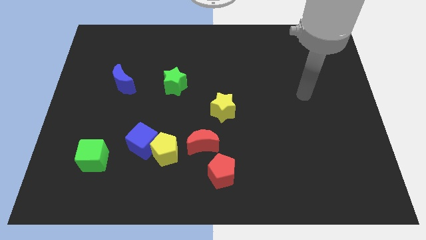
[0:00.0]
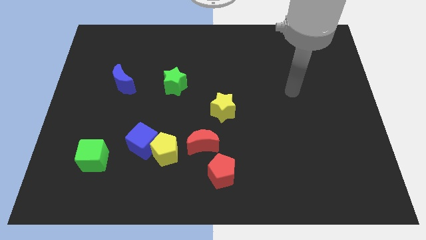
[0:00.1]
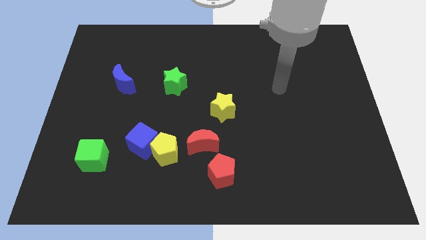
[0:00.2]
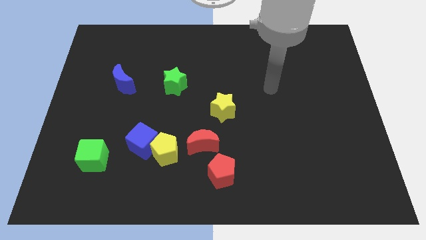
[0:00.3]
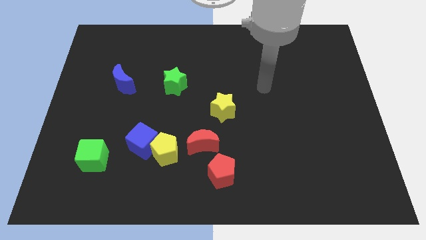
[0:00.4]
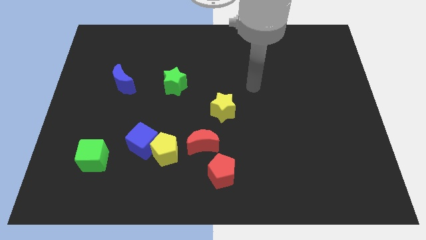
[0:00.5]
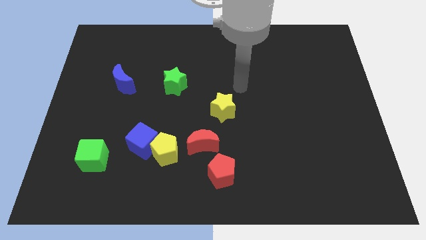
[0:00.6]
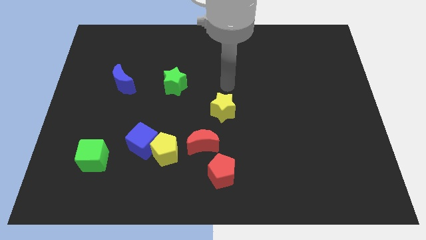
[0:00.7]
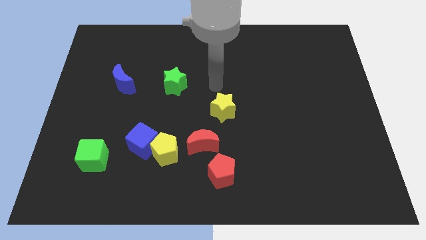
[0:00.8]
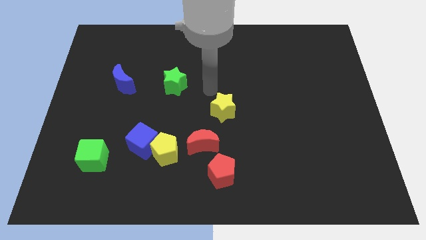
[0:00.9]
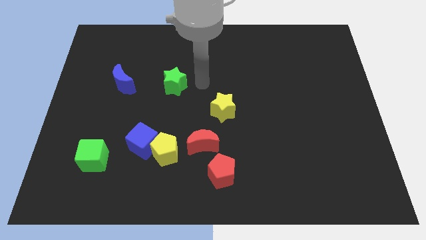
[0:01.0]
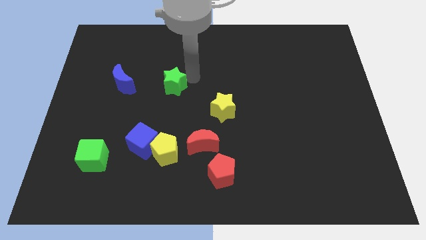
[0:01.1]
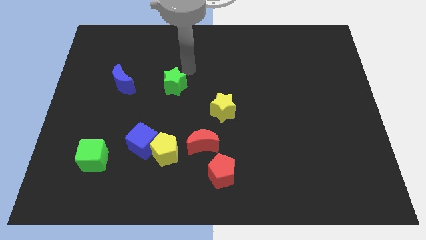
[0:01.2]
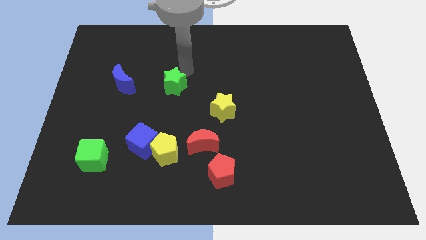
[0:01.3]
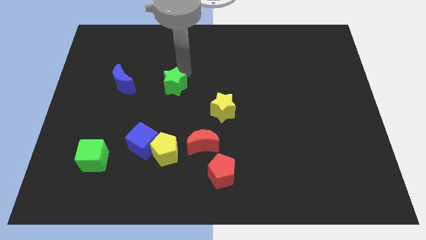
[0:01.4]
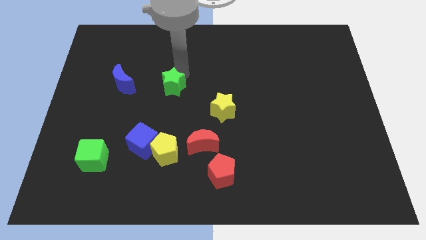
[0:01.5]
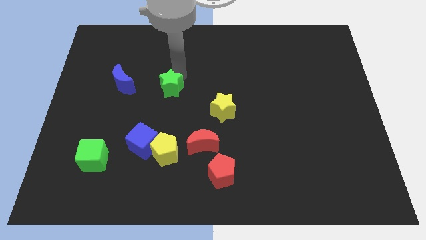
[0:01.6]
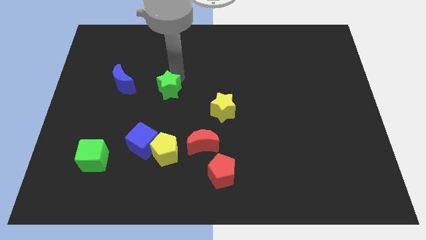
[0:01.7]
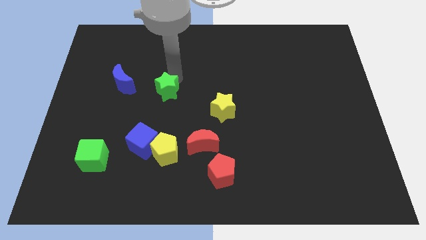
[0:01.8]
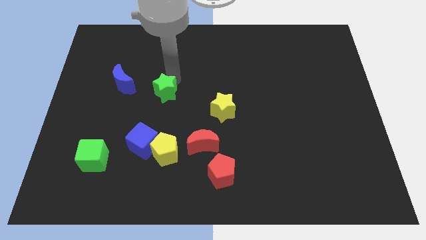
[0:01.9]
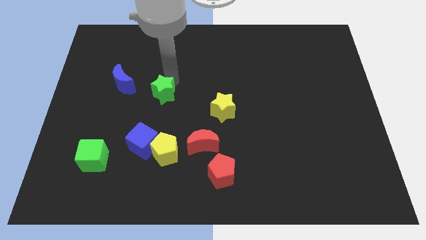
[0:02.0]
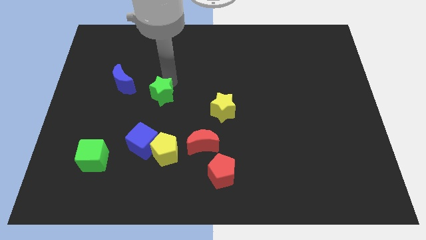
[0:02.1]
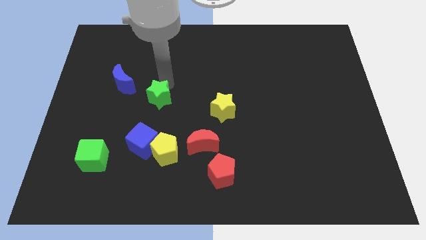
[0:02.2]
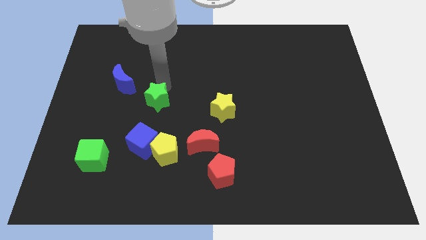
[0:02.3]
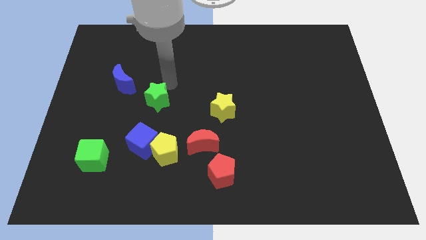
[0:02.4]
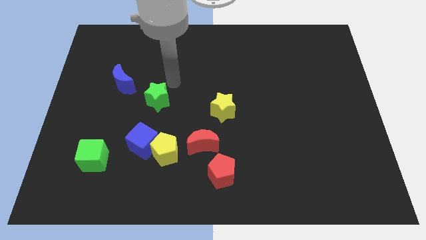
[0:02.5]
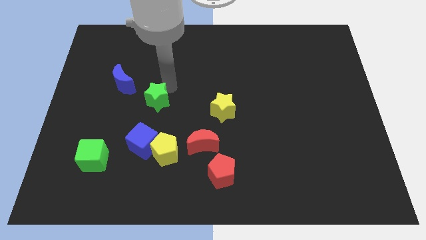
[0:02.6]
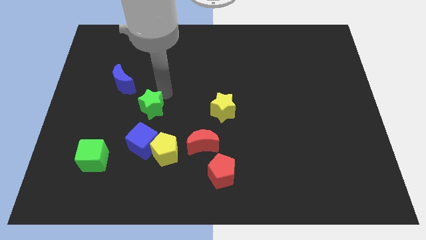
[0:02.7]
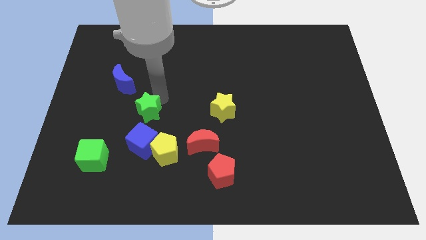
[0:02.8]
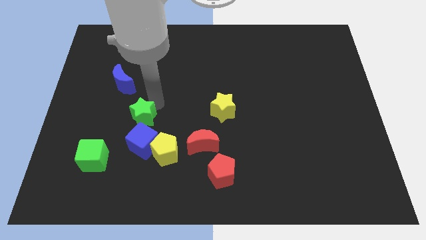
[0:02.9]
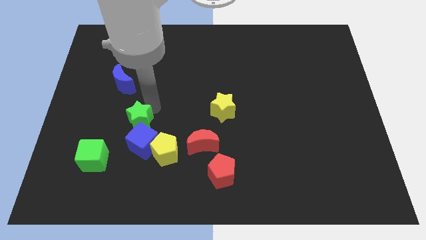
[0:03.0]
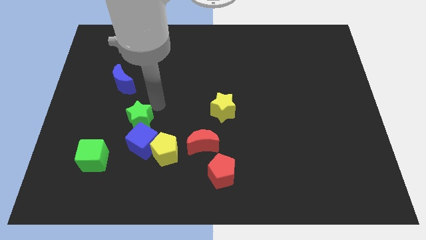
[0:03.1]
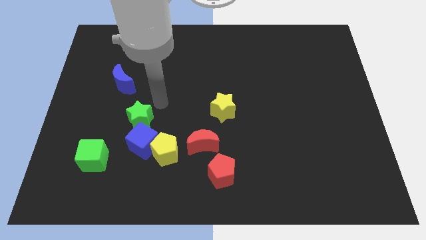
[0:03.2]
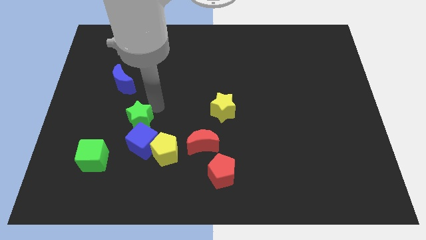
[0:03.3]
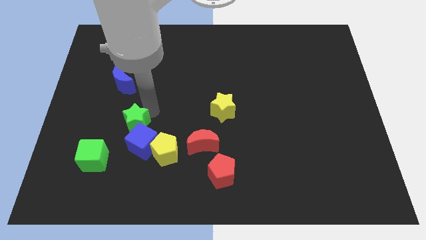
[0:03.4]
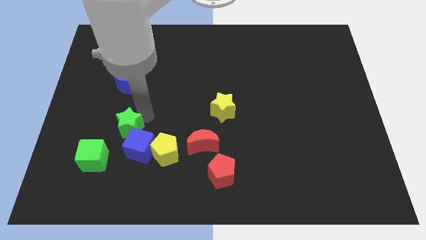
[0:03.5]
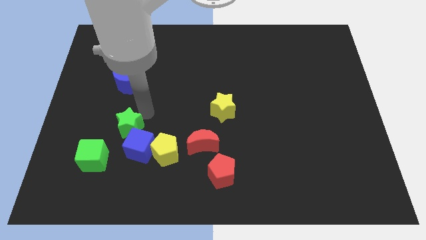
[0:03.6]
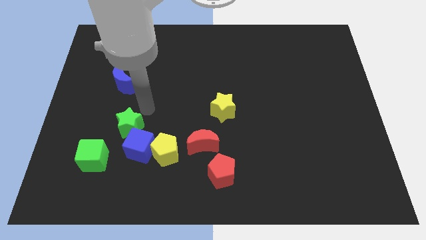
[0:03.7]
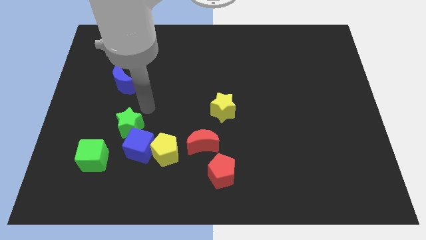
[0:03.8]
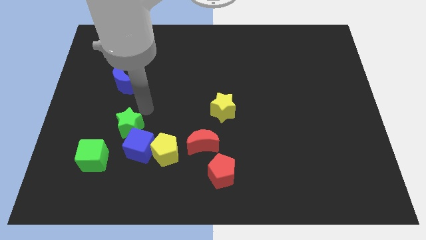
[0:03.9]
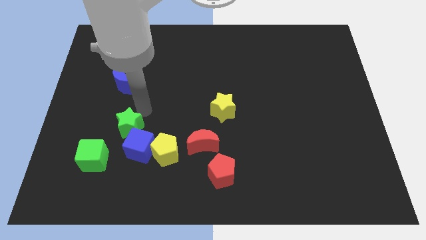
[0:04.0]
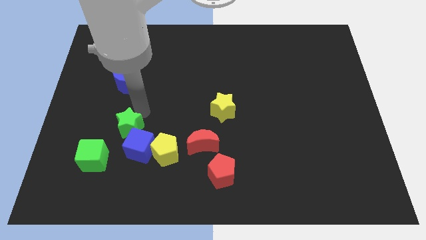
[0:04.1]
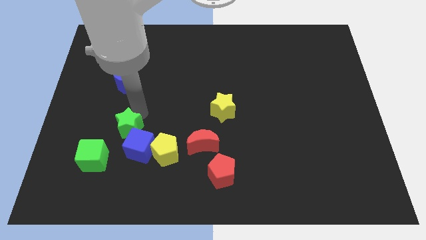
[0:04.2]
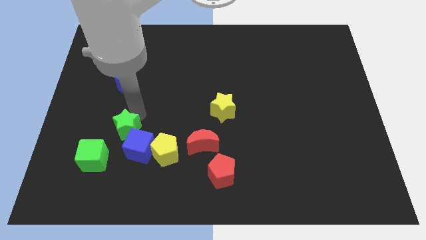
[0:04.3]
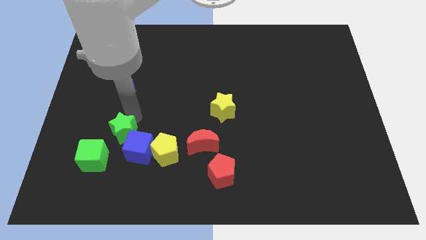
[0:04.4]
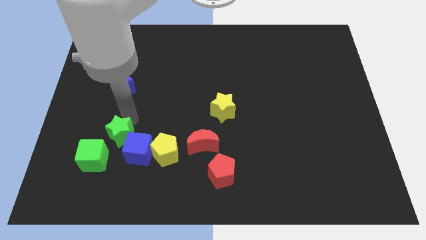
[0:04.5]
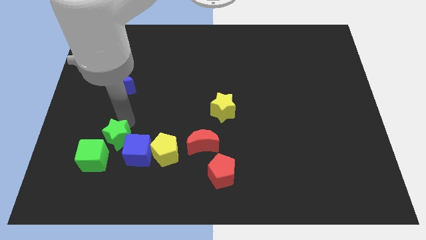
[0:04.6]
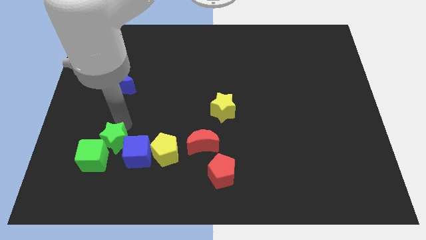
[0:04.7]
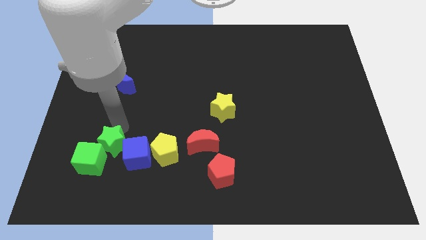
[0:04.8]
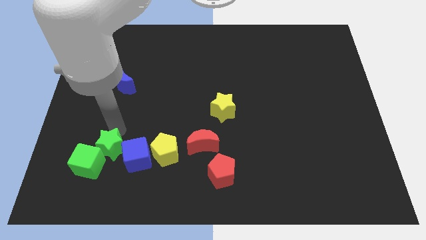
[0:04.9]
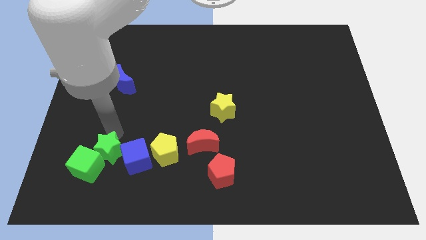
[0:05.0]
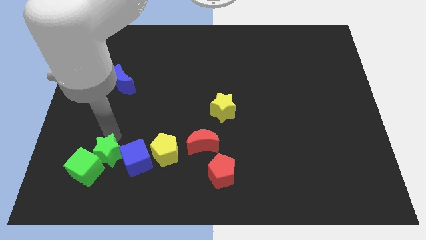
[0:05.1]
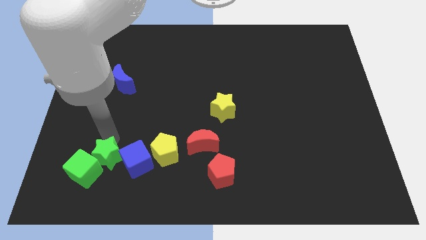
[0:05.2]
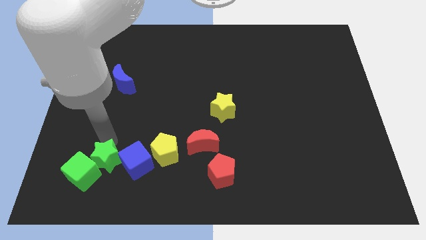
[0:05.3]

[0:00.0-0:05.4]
slide the green star diagonally down and to the left of the blue cube

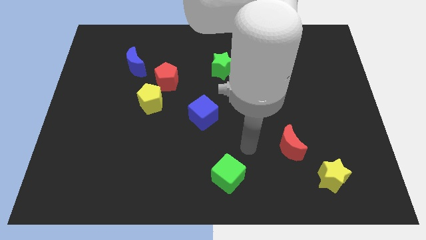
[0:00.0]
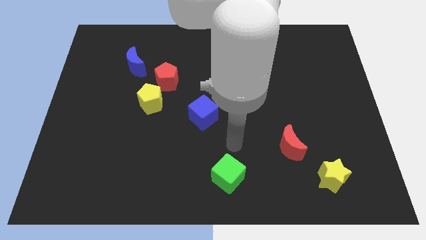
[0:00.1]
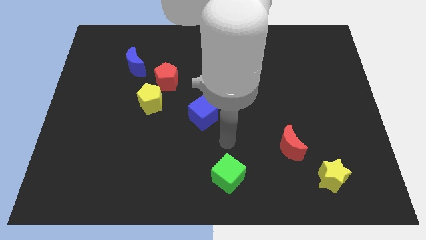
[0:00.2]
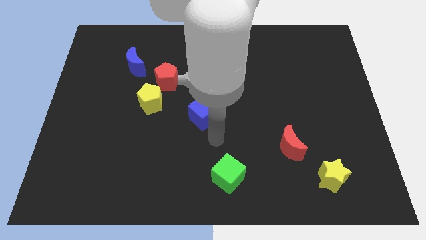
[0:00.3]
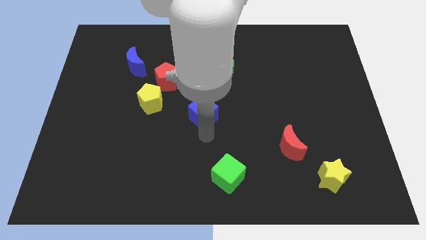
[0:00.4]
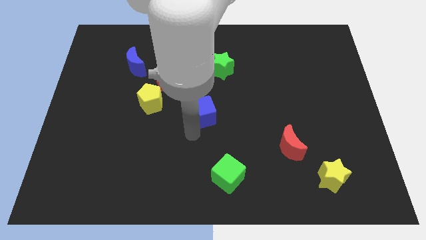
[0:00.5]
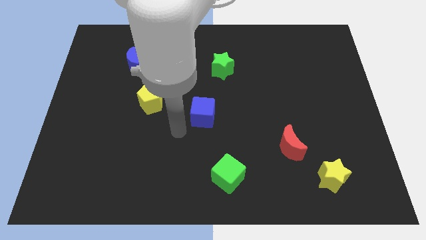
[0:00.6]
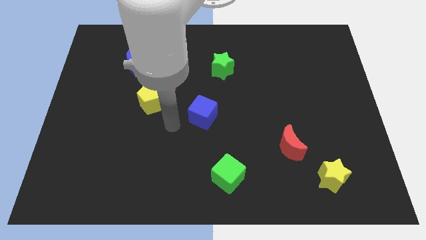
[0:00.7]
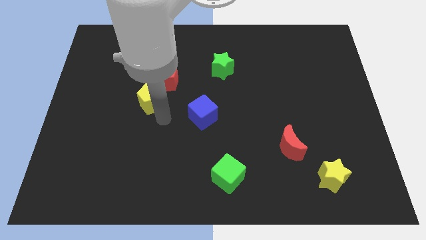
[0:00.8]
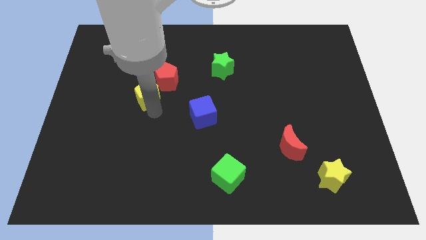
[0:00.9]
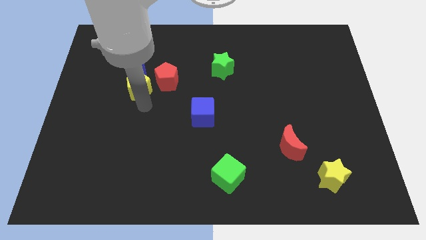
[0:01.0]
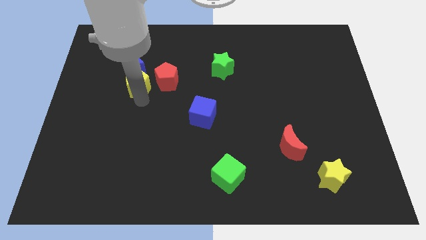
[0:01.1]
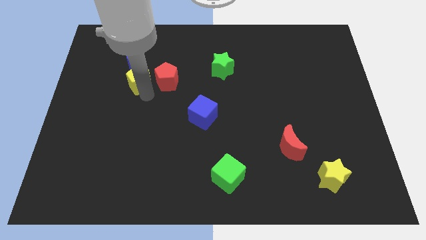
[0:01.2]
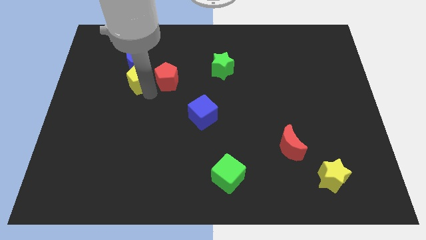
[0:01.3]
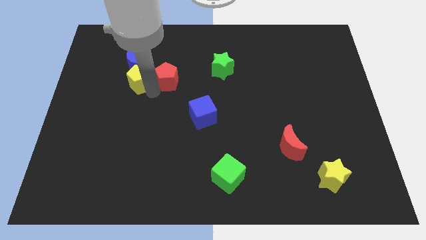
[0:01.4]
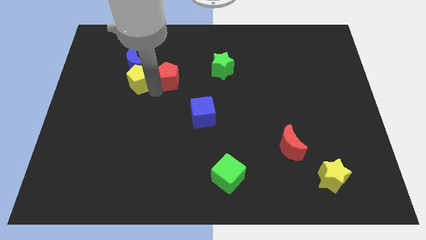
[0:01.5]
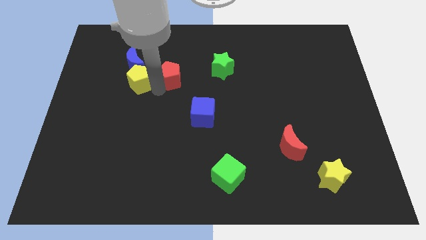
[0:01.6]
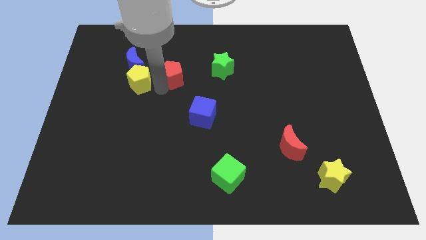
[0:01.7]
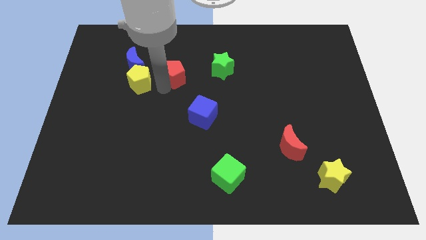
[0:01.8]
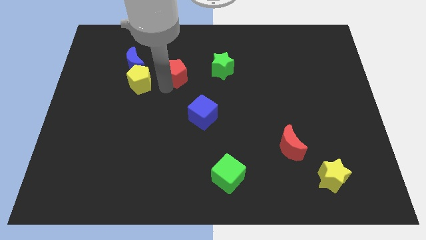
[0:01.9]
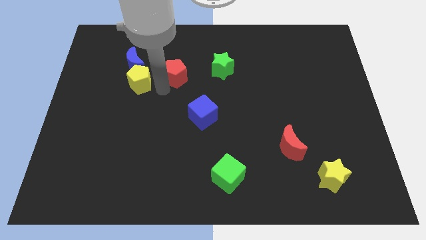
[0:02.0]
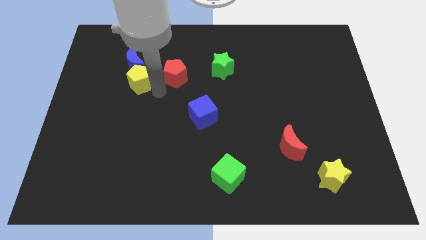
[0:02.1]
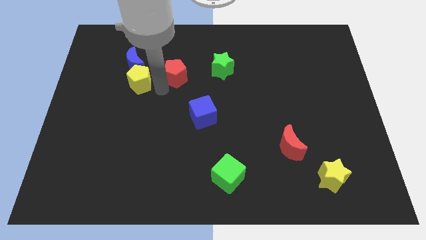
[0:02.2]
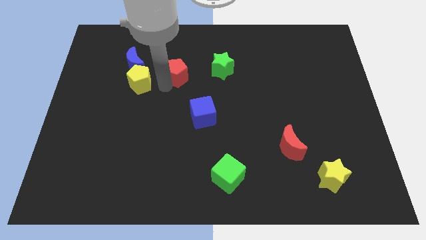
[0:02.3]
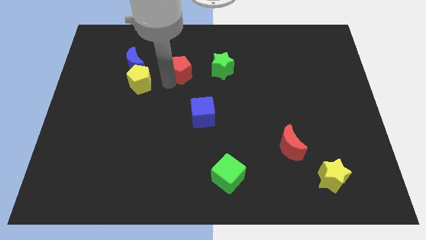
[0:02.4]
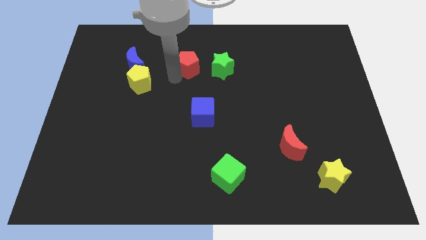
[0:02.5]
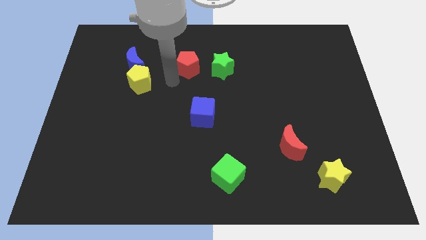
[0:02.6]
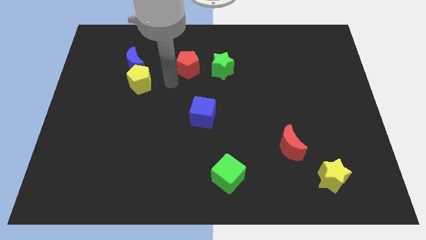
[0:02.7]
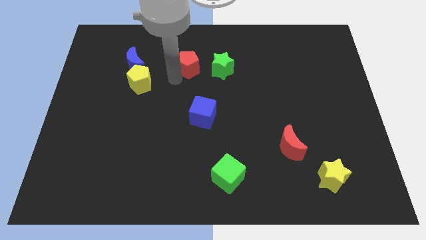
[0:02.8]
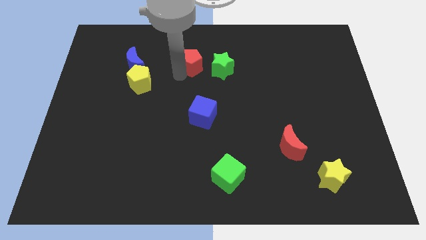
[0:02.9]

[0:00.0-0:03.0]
push the red pentagon to the top left side of the green star
